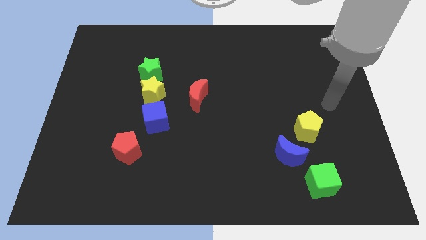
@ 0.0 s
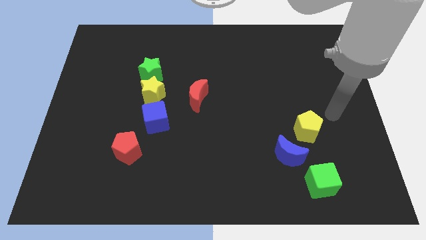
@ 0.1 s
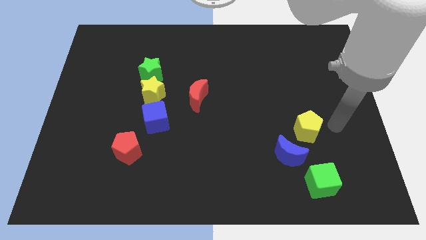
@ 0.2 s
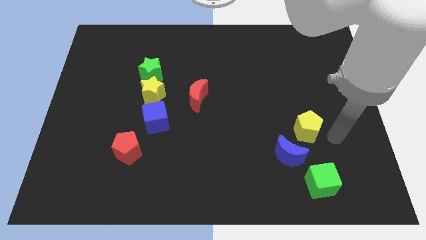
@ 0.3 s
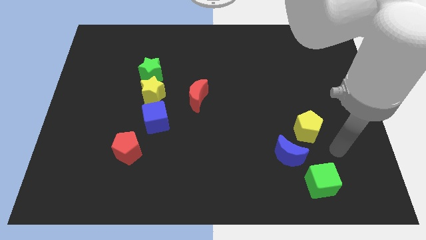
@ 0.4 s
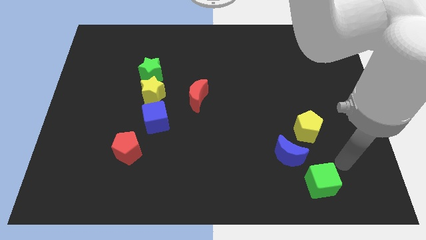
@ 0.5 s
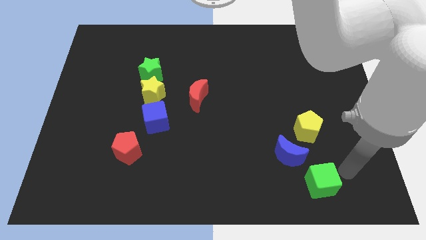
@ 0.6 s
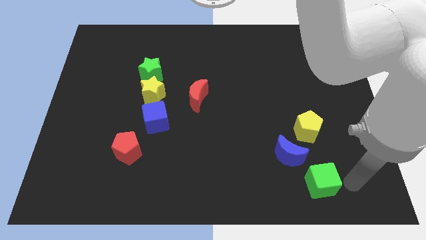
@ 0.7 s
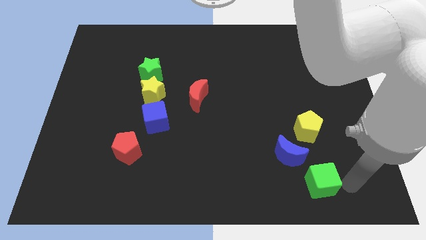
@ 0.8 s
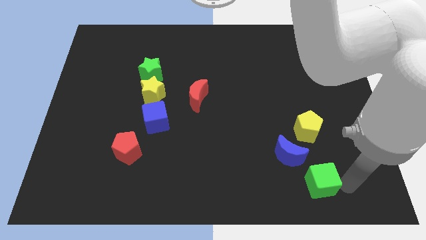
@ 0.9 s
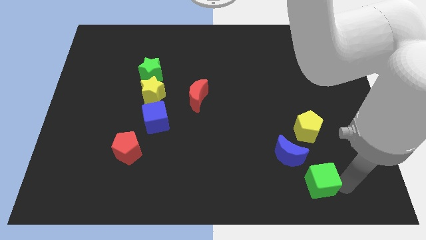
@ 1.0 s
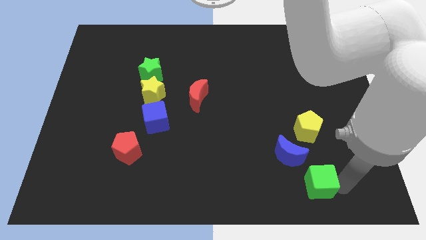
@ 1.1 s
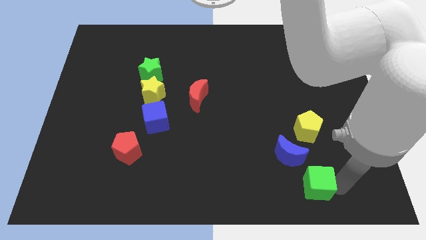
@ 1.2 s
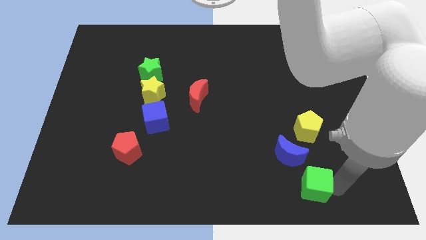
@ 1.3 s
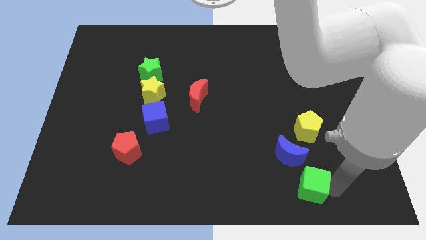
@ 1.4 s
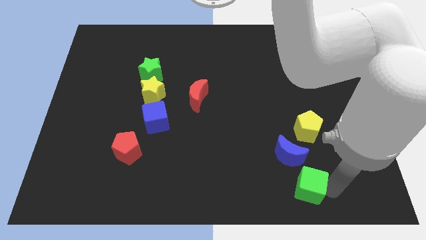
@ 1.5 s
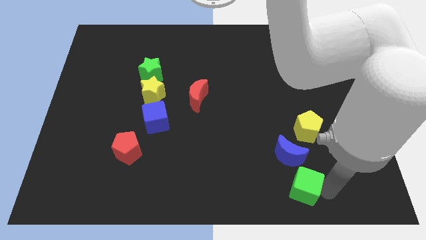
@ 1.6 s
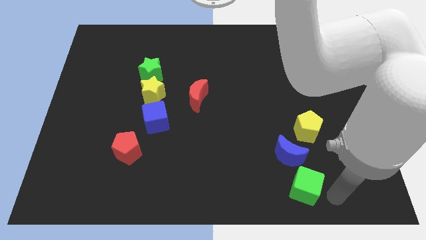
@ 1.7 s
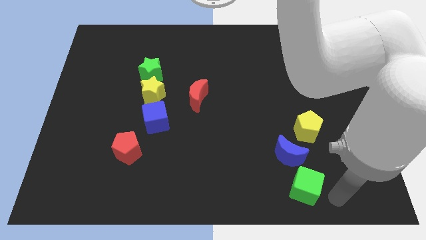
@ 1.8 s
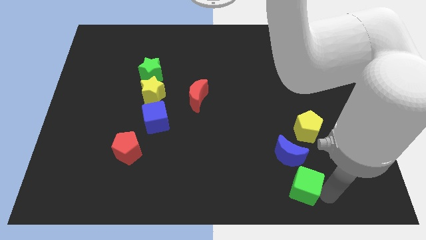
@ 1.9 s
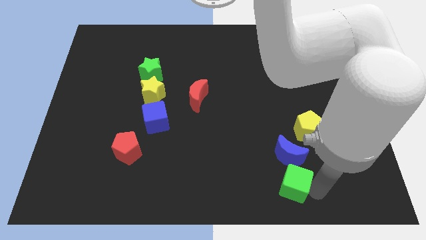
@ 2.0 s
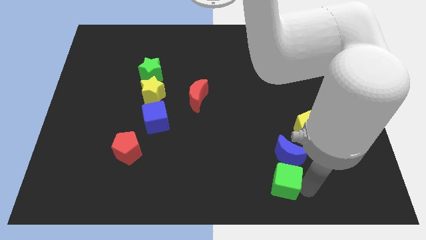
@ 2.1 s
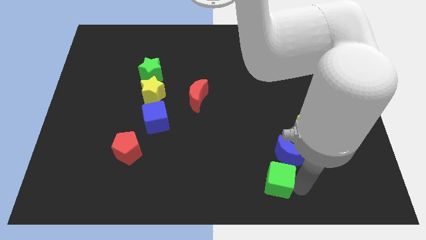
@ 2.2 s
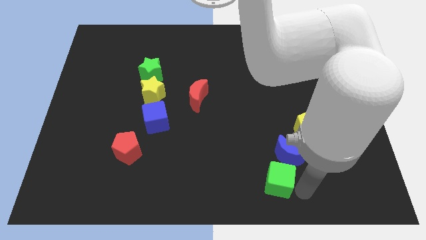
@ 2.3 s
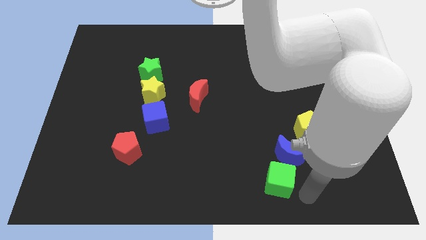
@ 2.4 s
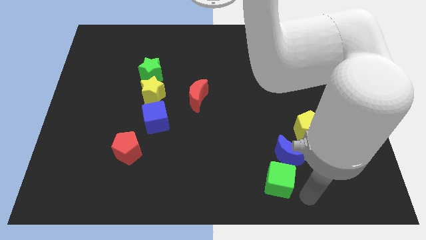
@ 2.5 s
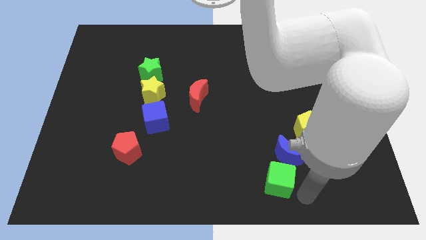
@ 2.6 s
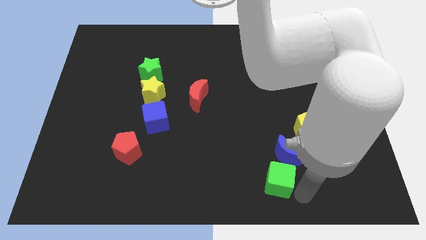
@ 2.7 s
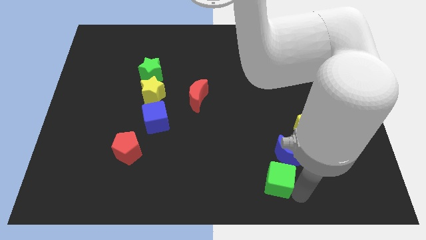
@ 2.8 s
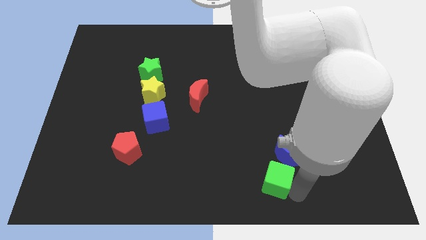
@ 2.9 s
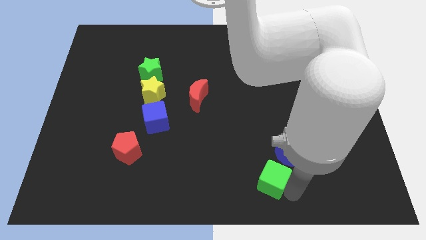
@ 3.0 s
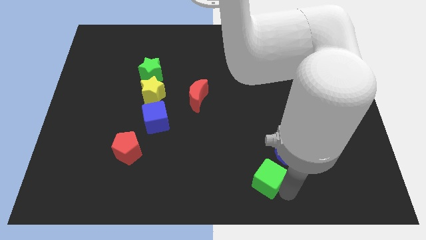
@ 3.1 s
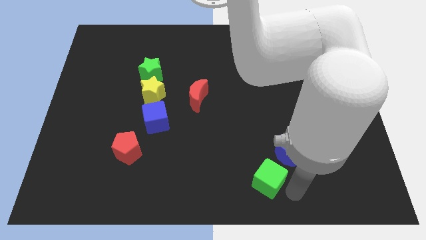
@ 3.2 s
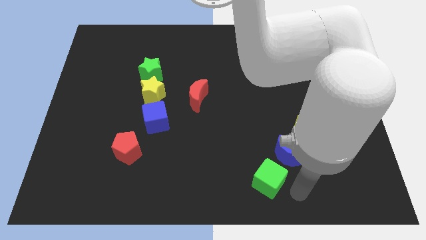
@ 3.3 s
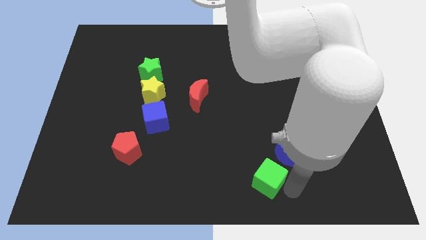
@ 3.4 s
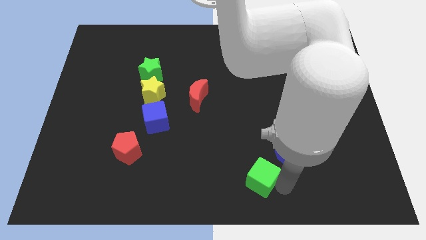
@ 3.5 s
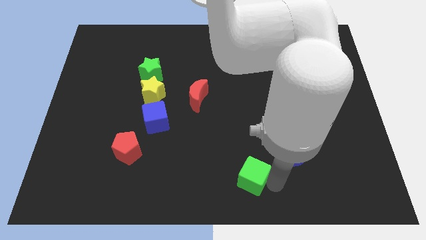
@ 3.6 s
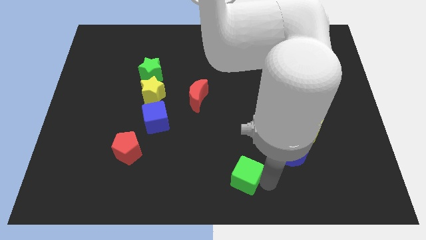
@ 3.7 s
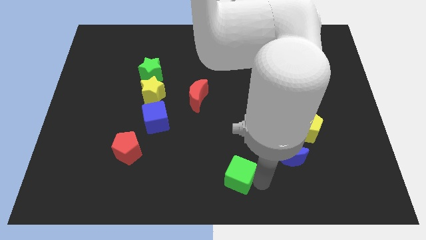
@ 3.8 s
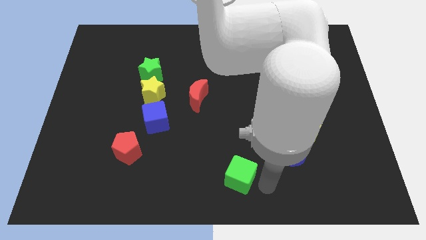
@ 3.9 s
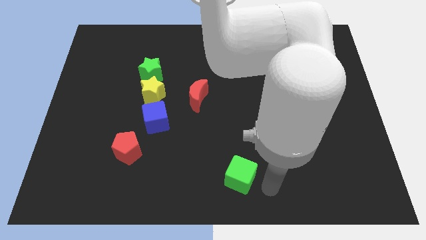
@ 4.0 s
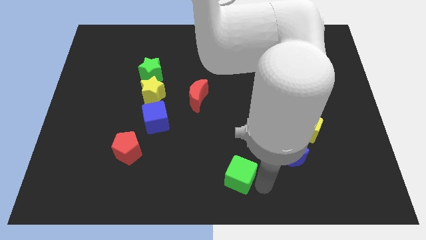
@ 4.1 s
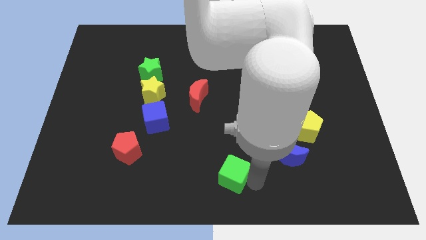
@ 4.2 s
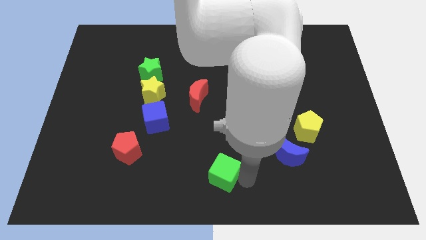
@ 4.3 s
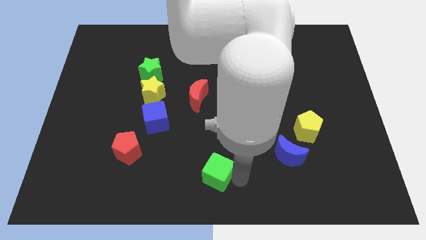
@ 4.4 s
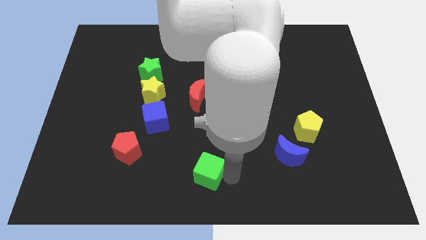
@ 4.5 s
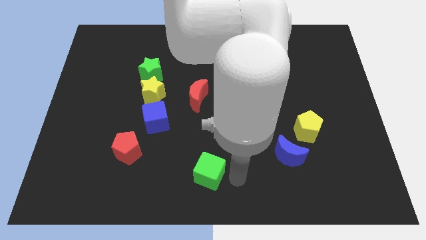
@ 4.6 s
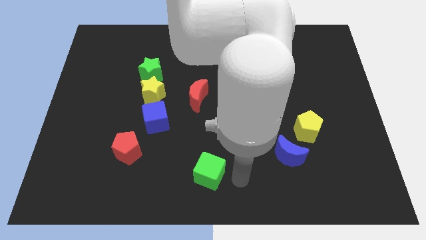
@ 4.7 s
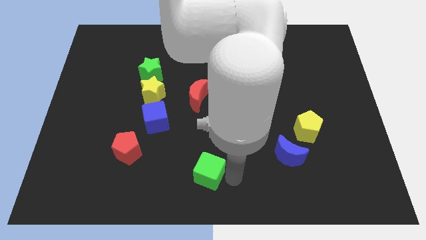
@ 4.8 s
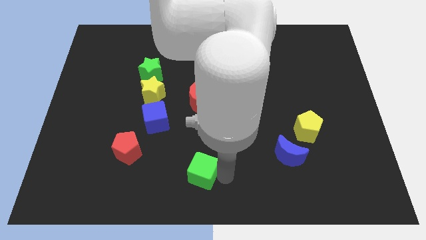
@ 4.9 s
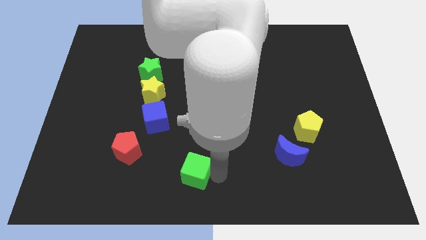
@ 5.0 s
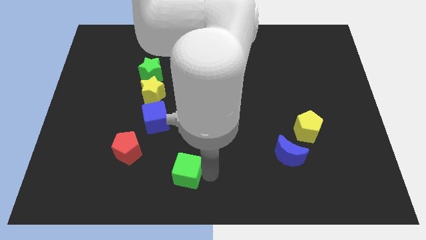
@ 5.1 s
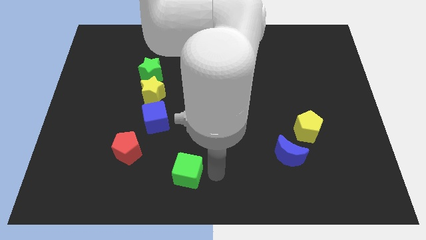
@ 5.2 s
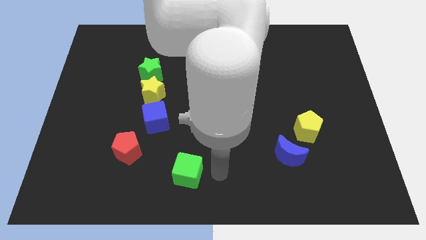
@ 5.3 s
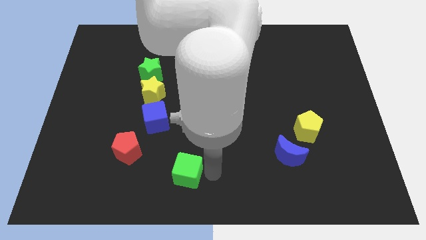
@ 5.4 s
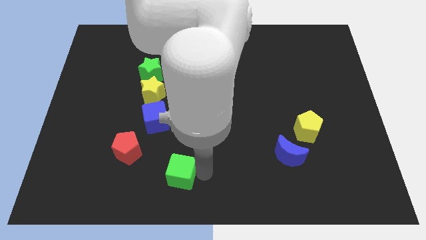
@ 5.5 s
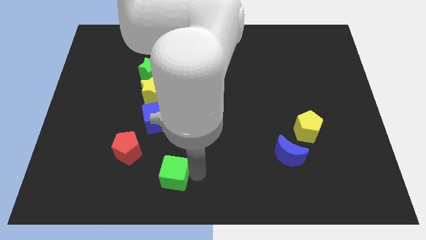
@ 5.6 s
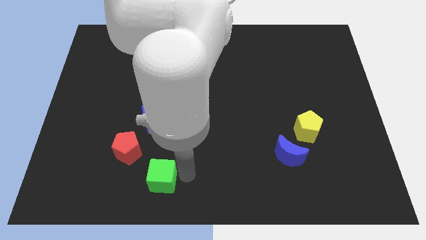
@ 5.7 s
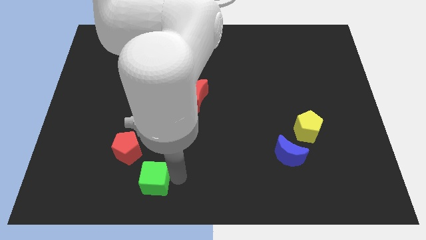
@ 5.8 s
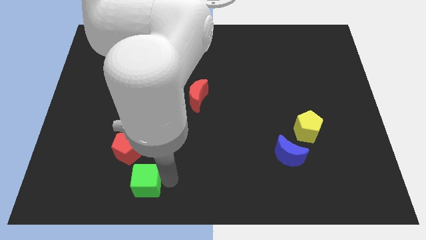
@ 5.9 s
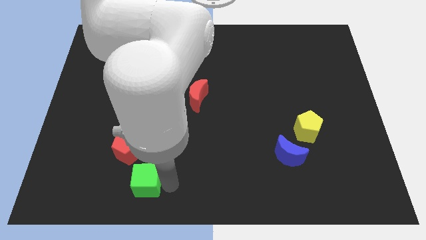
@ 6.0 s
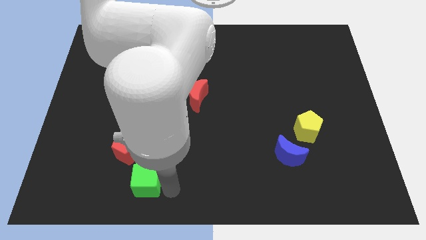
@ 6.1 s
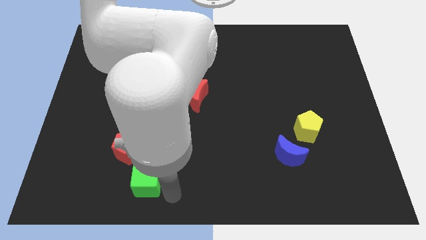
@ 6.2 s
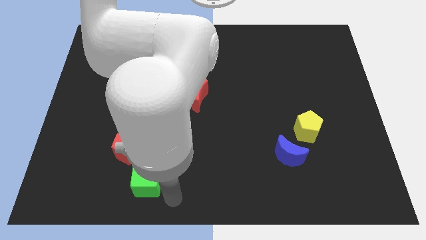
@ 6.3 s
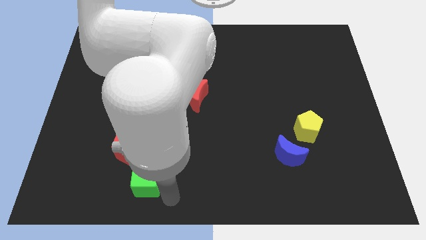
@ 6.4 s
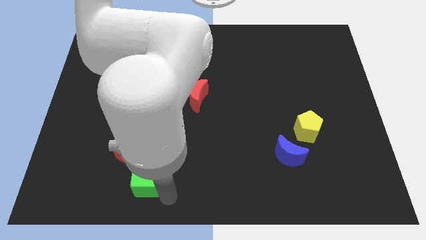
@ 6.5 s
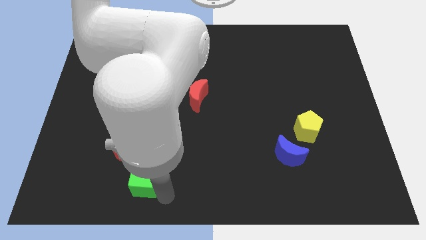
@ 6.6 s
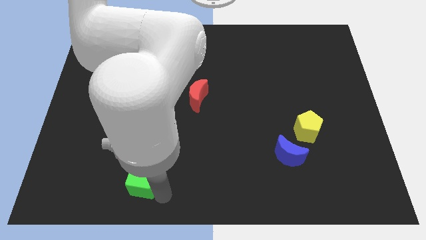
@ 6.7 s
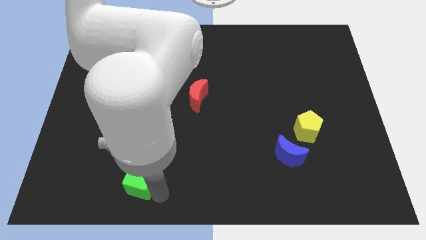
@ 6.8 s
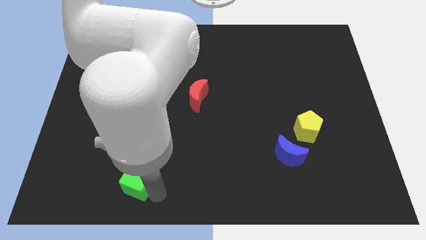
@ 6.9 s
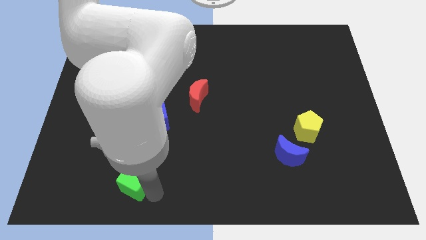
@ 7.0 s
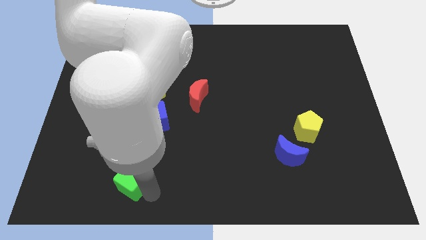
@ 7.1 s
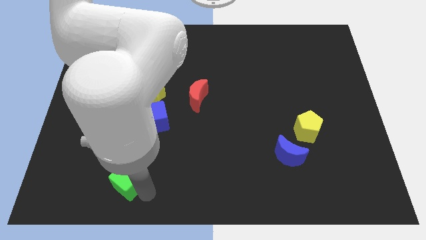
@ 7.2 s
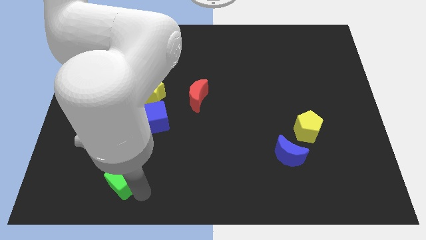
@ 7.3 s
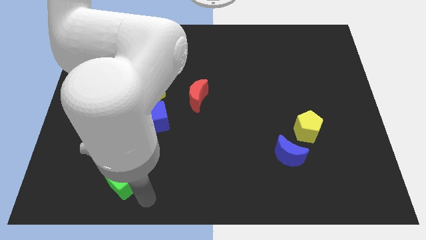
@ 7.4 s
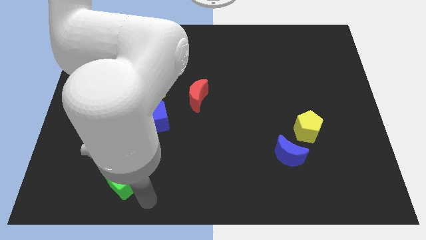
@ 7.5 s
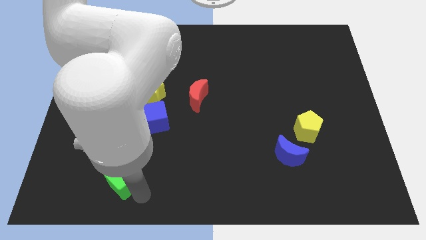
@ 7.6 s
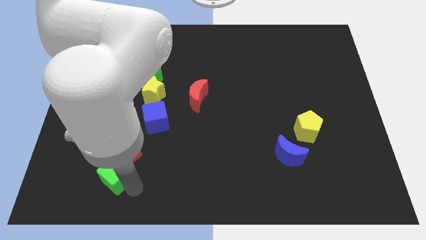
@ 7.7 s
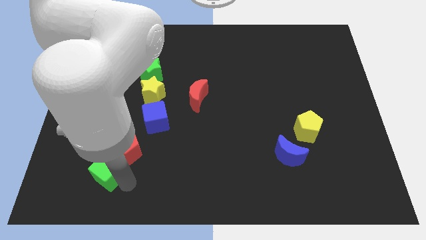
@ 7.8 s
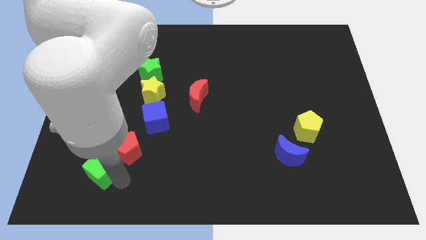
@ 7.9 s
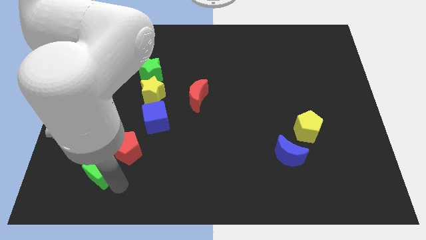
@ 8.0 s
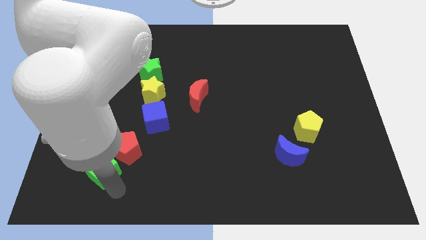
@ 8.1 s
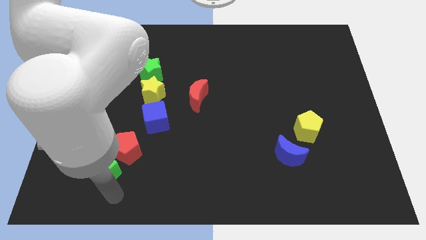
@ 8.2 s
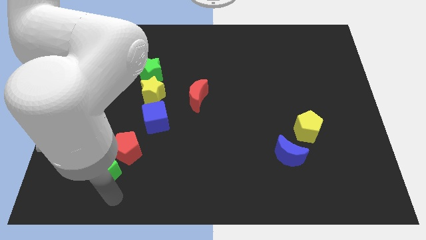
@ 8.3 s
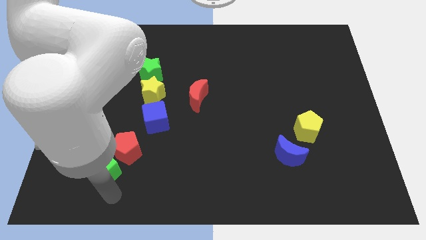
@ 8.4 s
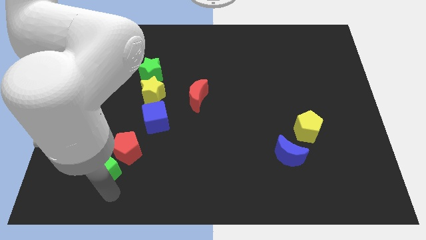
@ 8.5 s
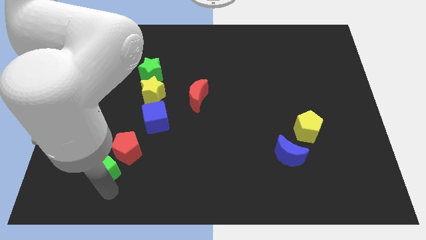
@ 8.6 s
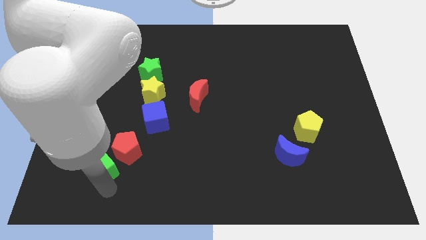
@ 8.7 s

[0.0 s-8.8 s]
move the green cube left of the red pentagon
